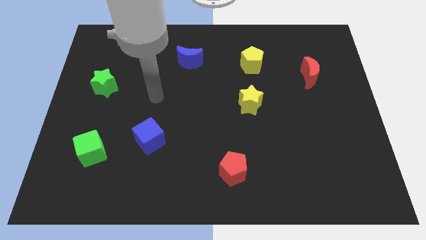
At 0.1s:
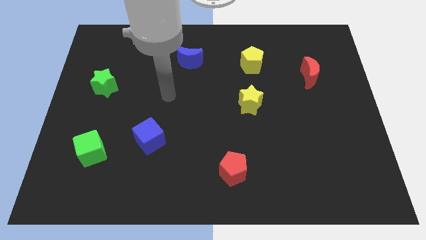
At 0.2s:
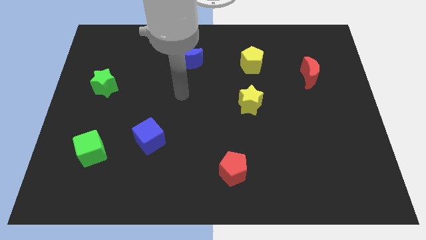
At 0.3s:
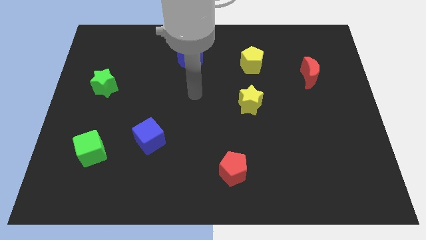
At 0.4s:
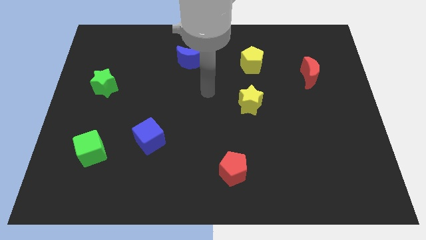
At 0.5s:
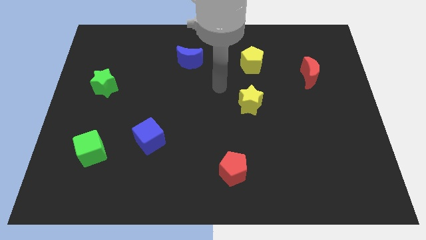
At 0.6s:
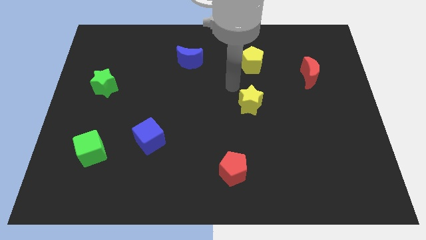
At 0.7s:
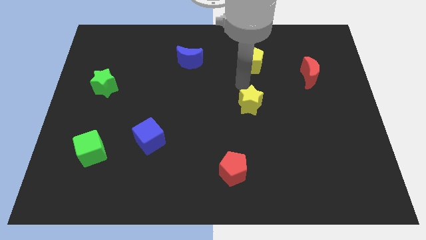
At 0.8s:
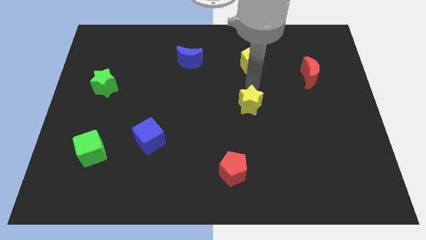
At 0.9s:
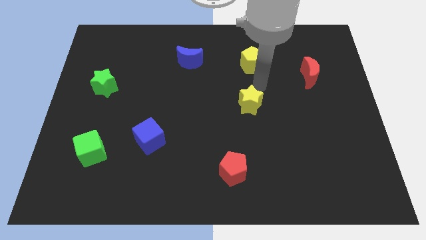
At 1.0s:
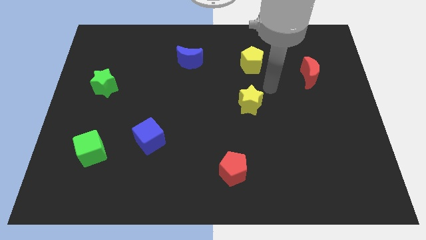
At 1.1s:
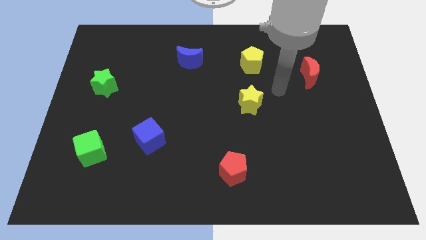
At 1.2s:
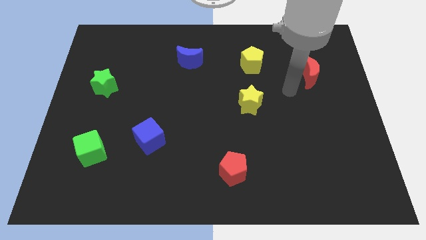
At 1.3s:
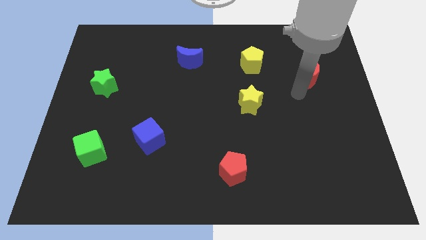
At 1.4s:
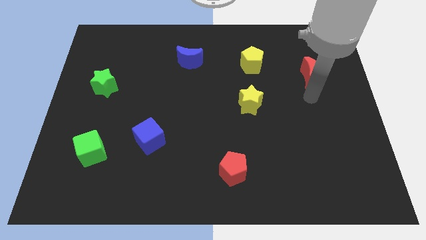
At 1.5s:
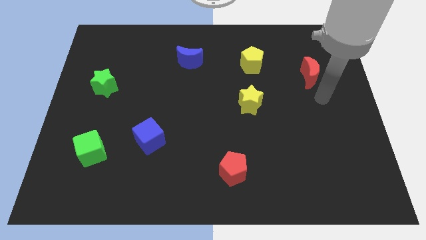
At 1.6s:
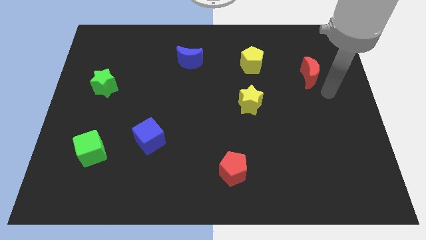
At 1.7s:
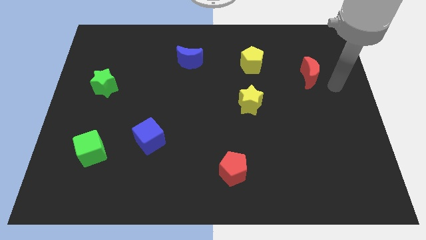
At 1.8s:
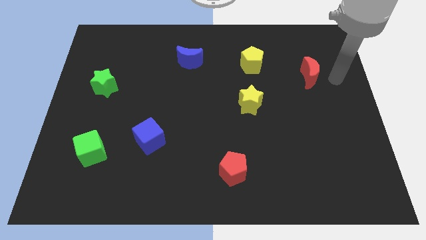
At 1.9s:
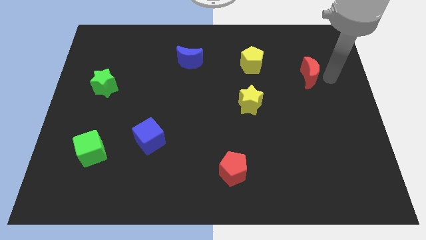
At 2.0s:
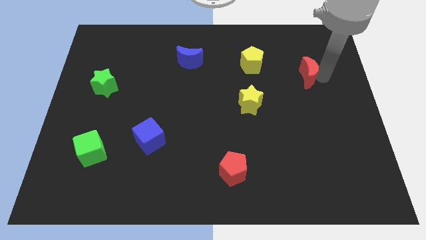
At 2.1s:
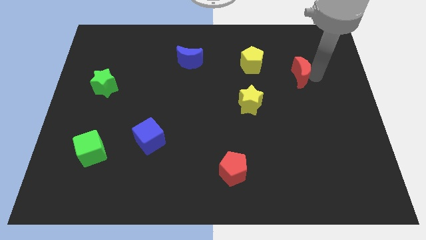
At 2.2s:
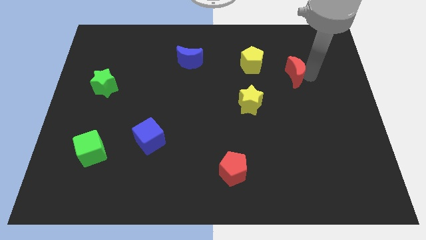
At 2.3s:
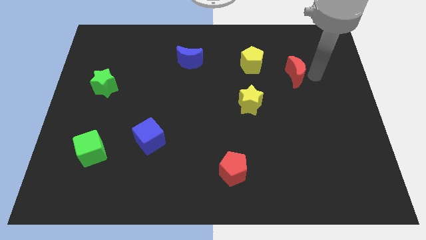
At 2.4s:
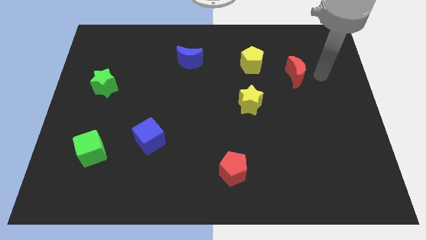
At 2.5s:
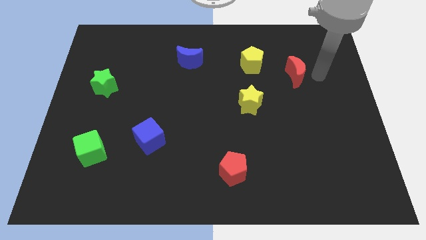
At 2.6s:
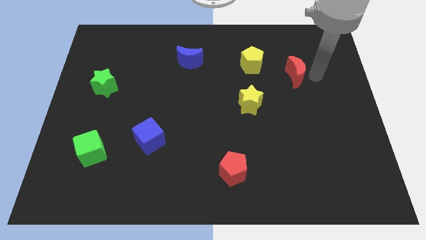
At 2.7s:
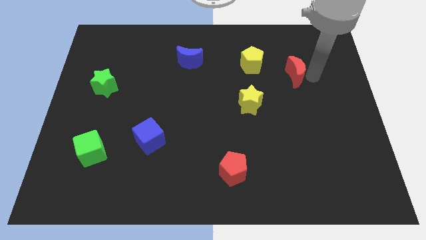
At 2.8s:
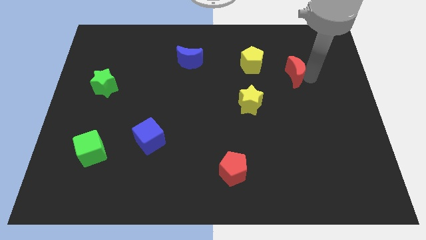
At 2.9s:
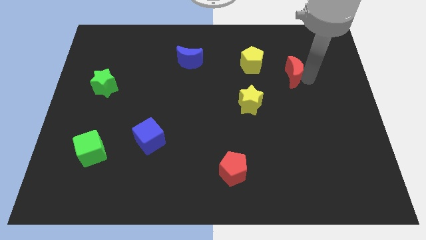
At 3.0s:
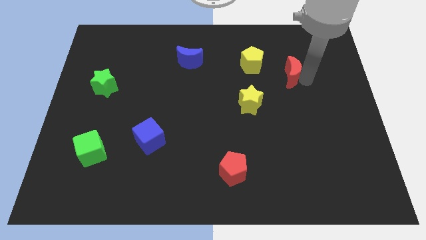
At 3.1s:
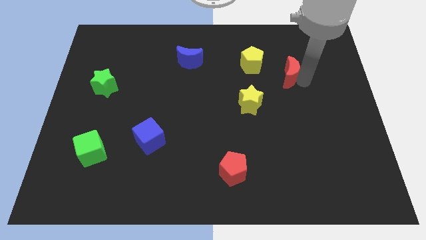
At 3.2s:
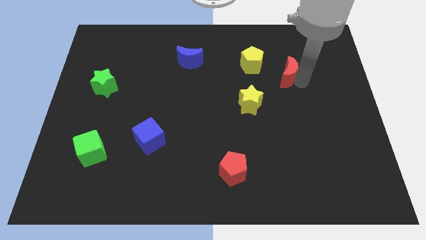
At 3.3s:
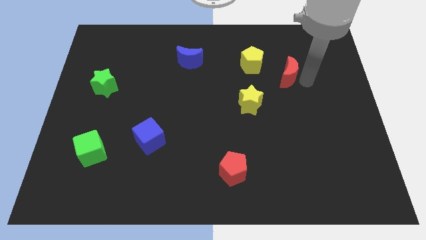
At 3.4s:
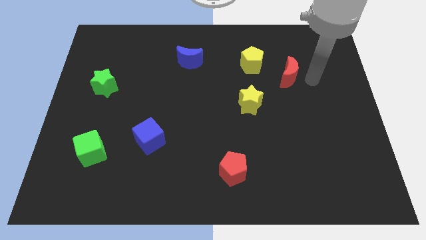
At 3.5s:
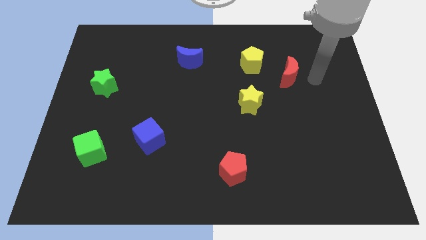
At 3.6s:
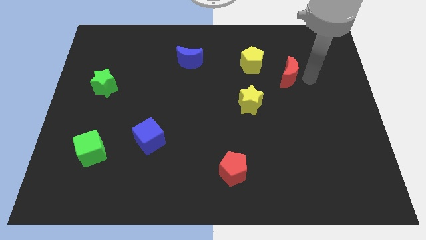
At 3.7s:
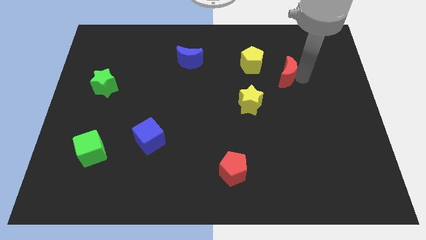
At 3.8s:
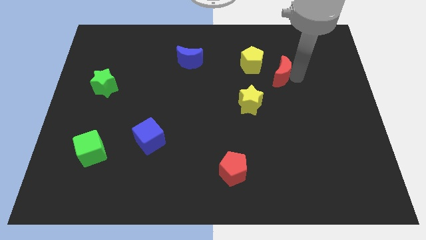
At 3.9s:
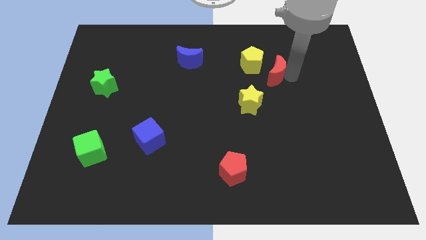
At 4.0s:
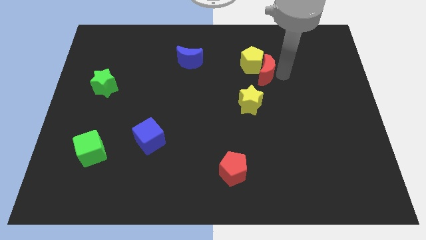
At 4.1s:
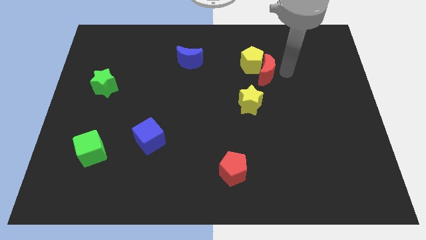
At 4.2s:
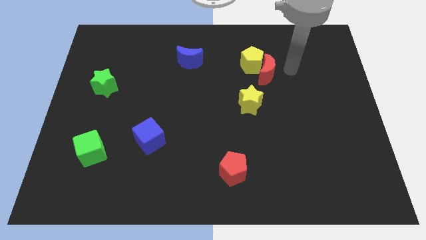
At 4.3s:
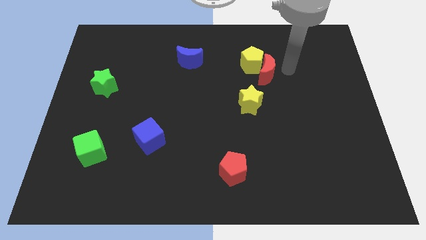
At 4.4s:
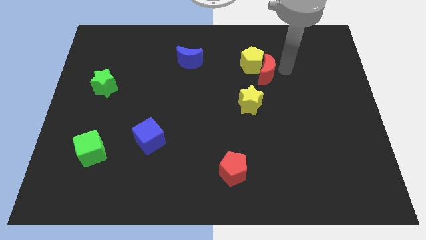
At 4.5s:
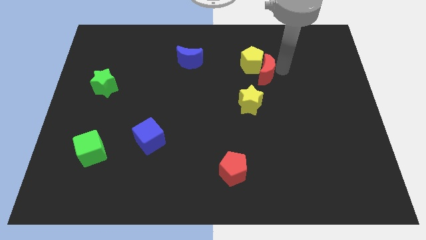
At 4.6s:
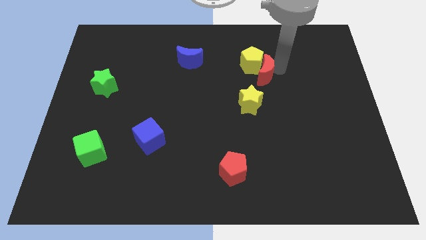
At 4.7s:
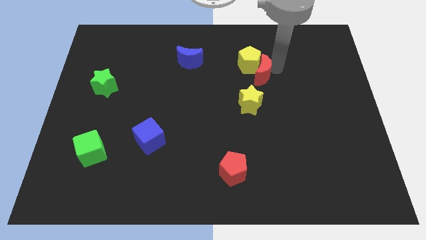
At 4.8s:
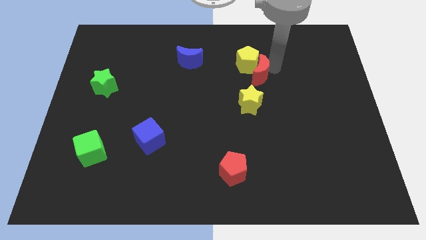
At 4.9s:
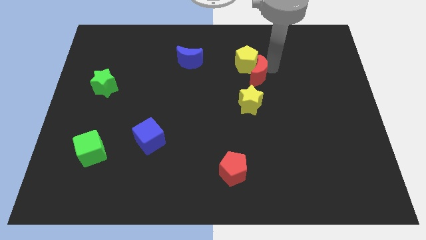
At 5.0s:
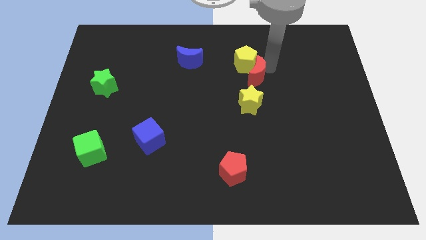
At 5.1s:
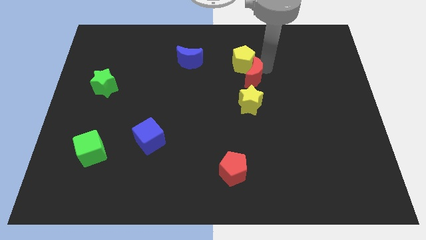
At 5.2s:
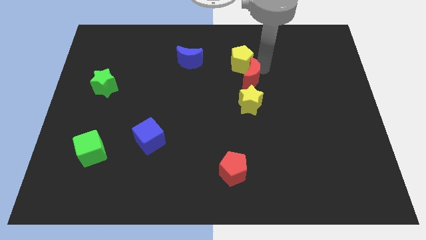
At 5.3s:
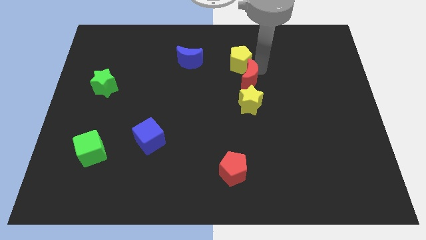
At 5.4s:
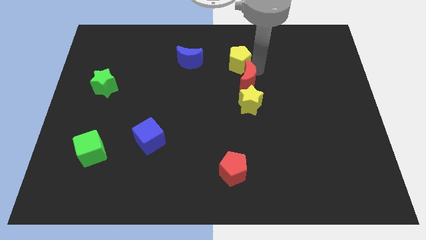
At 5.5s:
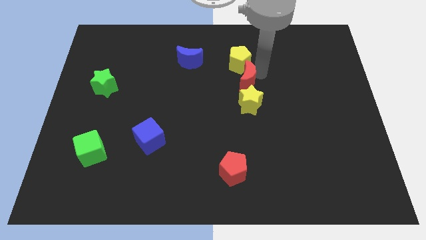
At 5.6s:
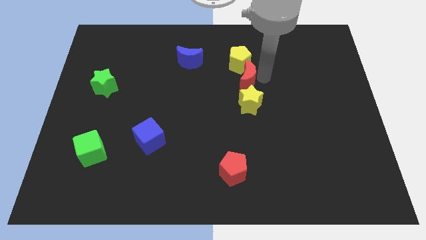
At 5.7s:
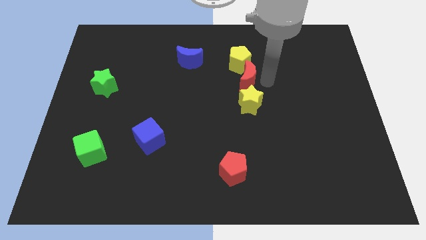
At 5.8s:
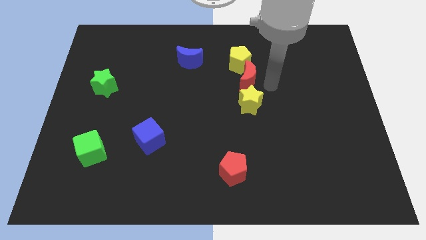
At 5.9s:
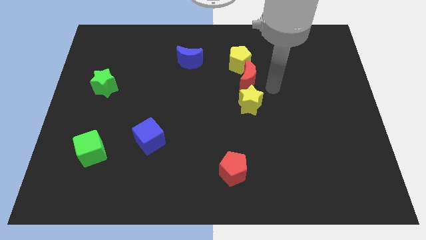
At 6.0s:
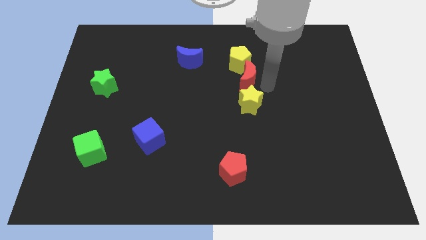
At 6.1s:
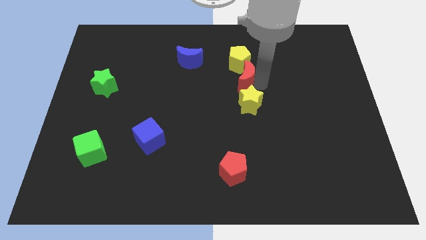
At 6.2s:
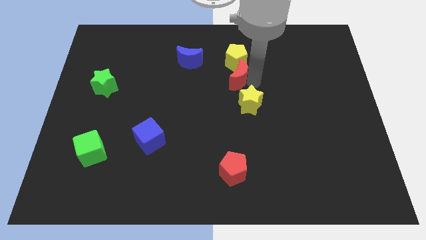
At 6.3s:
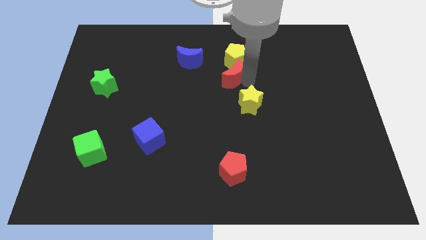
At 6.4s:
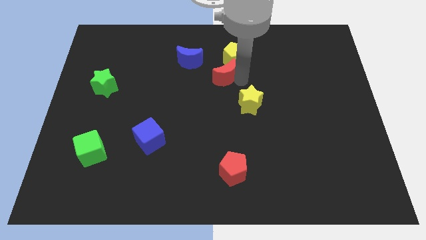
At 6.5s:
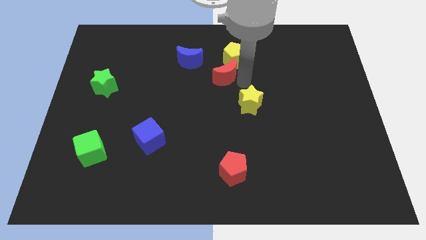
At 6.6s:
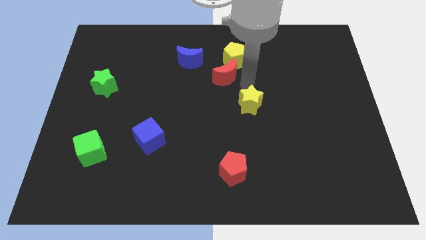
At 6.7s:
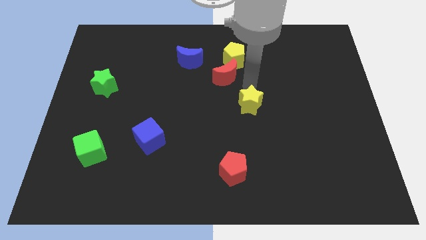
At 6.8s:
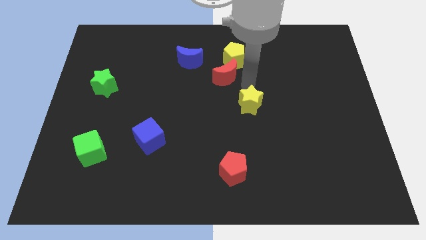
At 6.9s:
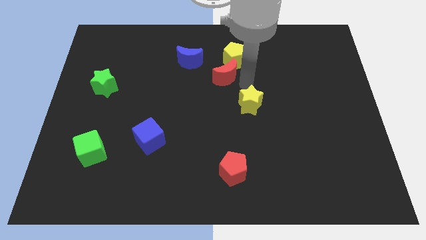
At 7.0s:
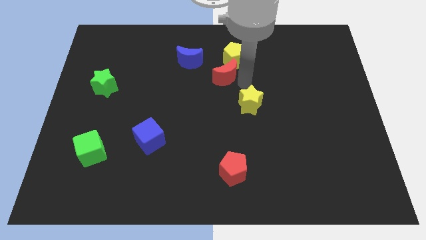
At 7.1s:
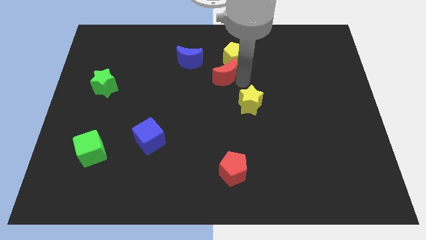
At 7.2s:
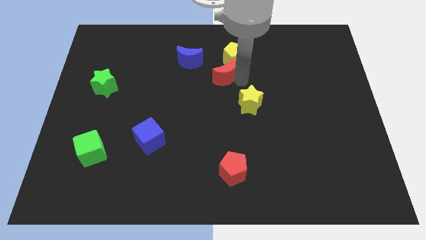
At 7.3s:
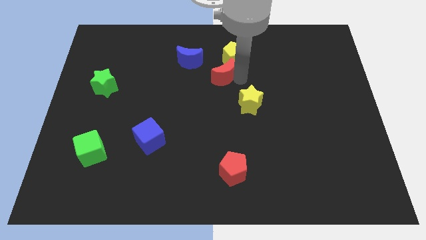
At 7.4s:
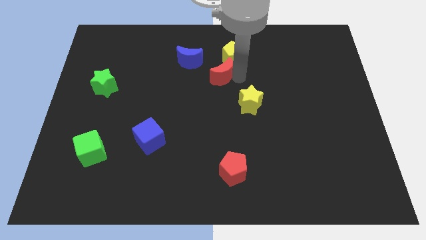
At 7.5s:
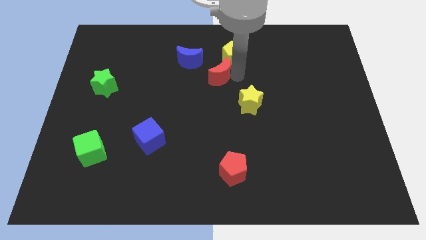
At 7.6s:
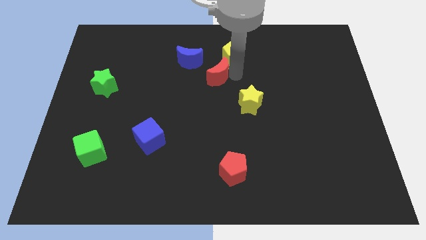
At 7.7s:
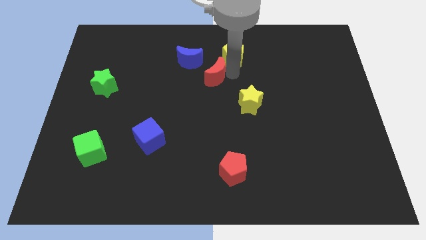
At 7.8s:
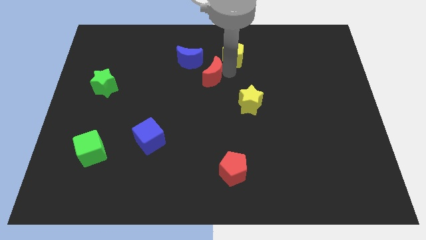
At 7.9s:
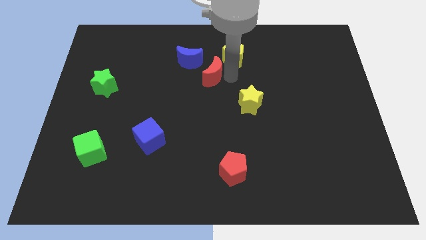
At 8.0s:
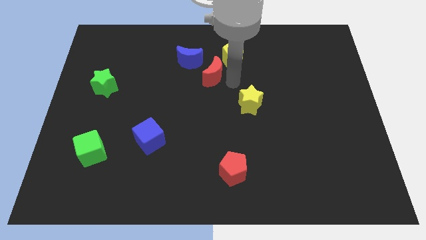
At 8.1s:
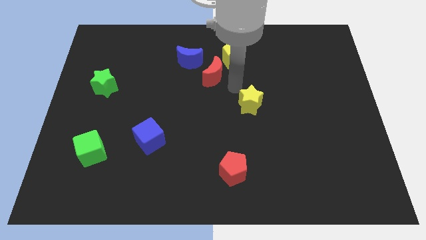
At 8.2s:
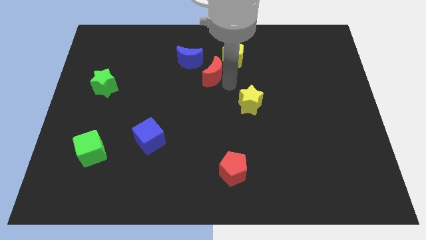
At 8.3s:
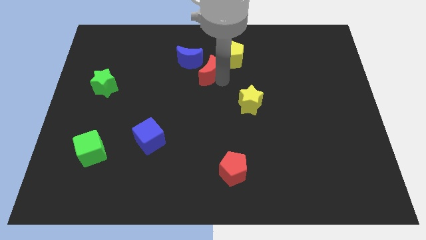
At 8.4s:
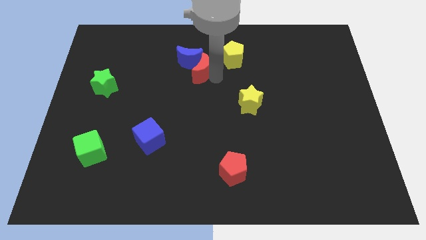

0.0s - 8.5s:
slide the red moon towards the blue moon
